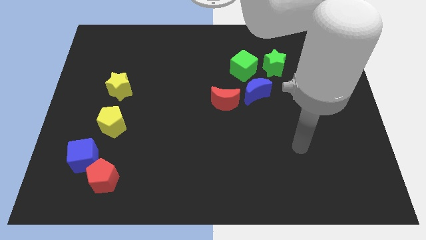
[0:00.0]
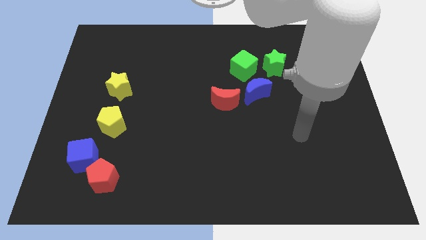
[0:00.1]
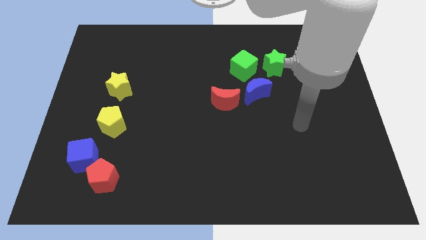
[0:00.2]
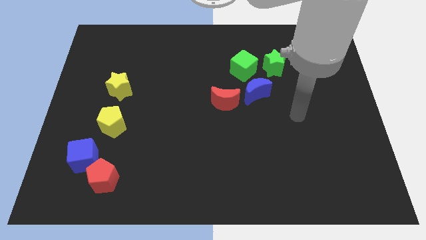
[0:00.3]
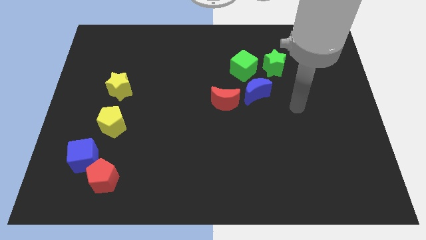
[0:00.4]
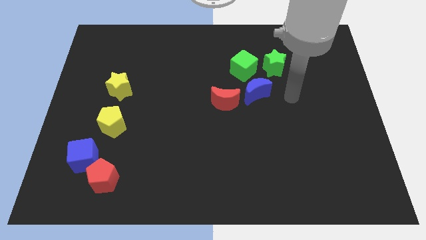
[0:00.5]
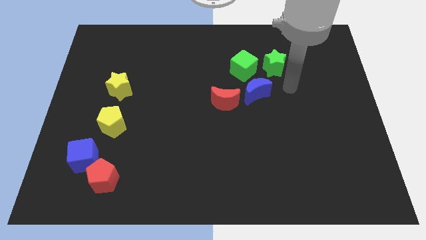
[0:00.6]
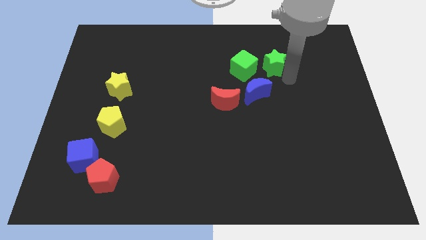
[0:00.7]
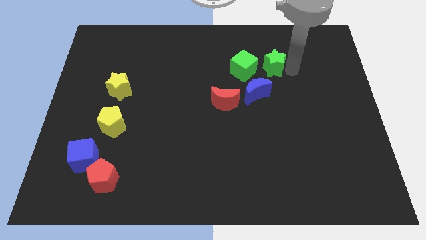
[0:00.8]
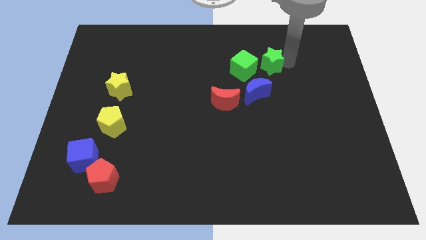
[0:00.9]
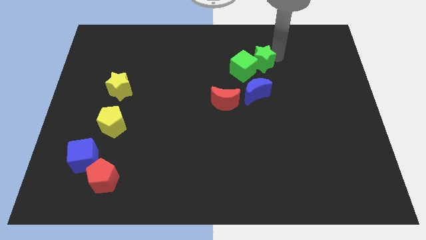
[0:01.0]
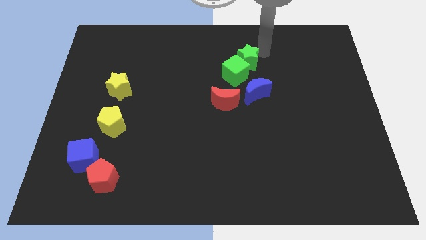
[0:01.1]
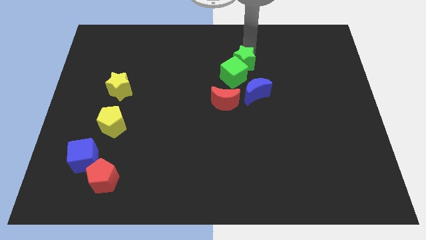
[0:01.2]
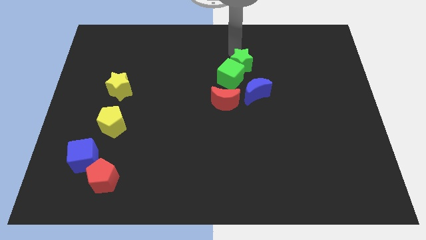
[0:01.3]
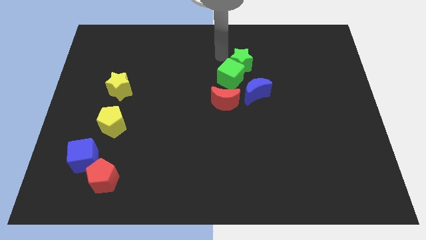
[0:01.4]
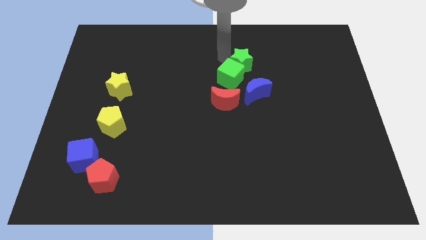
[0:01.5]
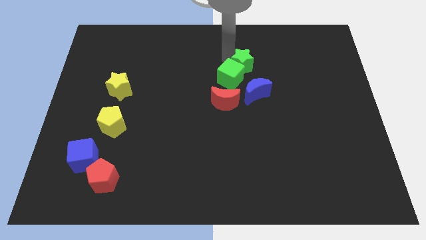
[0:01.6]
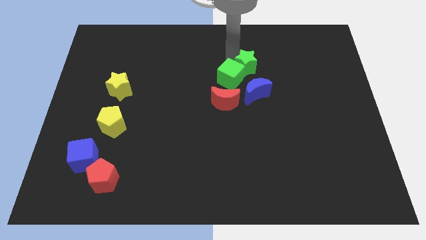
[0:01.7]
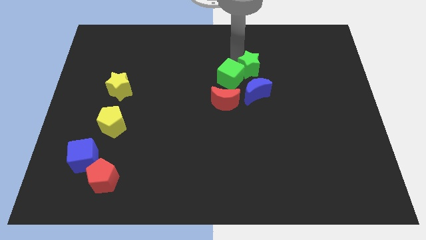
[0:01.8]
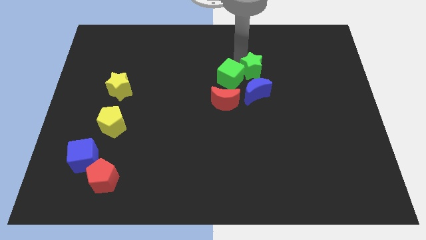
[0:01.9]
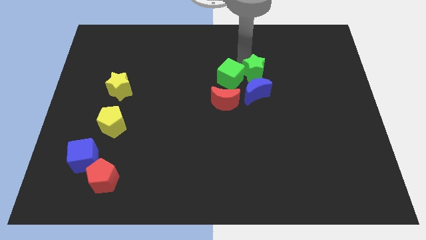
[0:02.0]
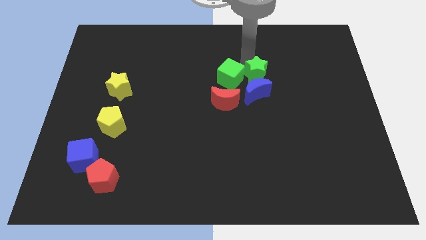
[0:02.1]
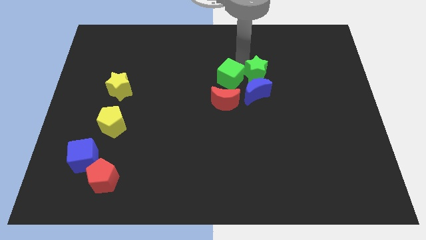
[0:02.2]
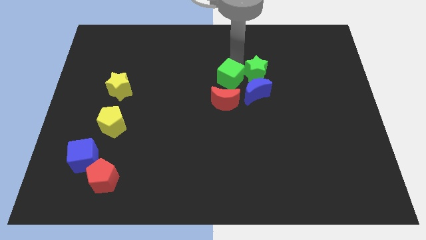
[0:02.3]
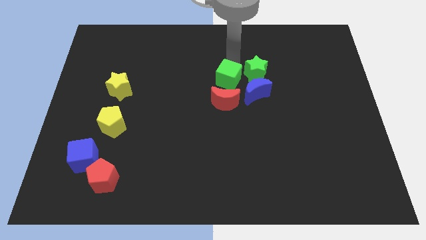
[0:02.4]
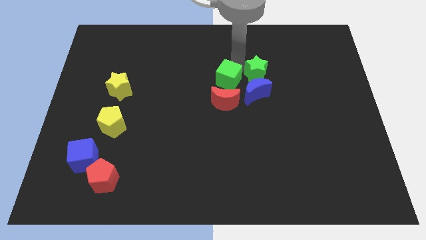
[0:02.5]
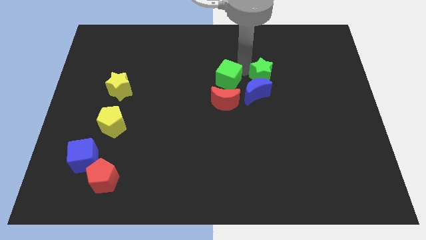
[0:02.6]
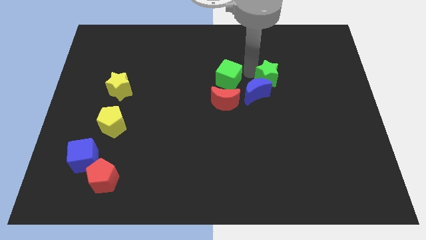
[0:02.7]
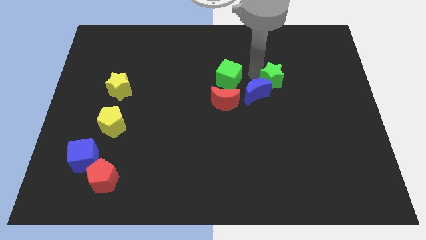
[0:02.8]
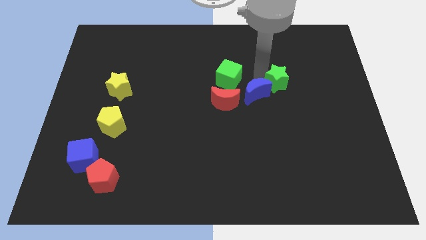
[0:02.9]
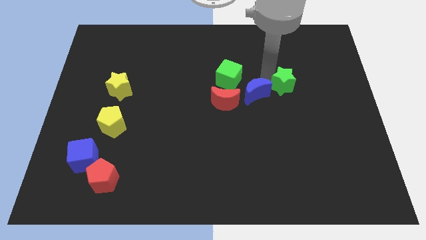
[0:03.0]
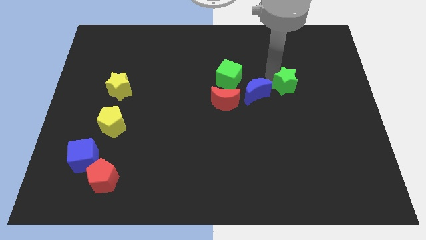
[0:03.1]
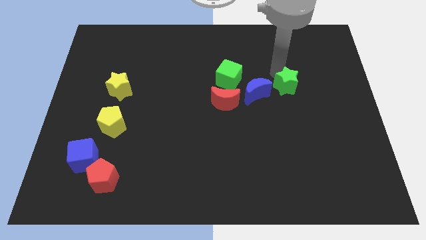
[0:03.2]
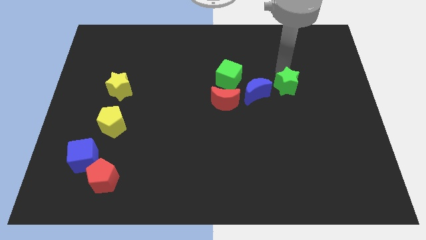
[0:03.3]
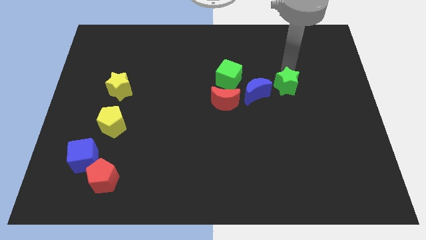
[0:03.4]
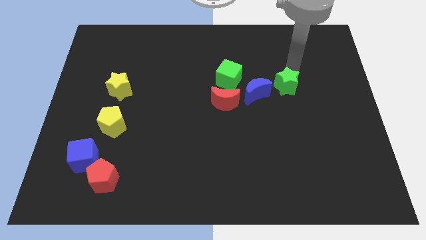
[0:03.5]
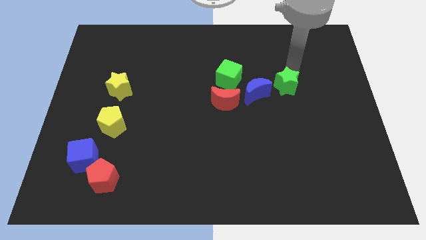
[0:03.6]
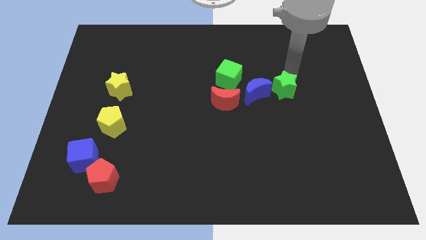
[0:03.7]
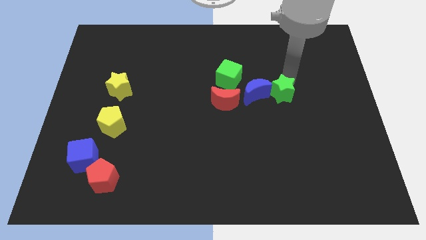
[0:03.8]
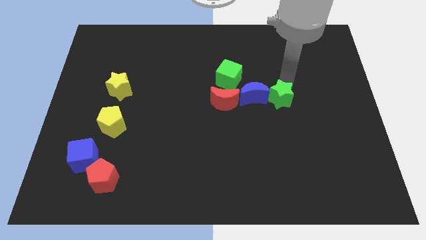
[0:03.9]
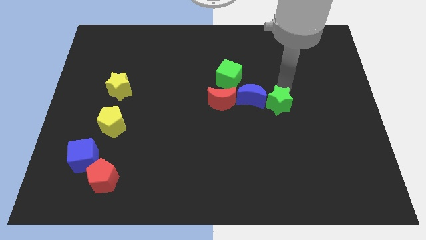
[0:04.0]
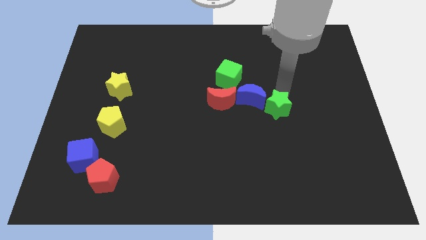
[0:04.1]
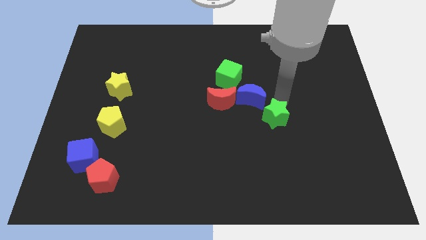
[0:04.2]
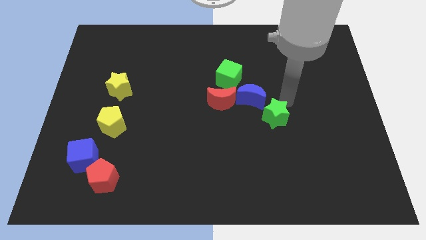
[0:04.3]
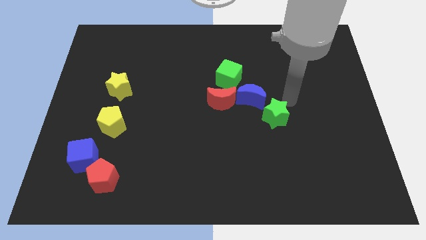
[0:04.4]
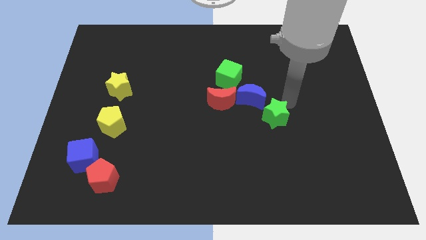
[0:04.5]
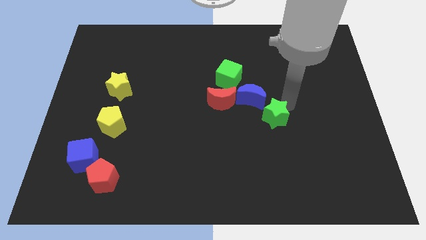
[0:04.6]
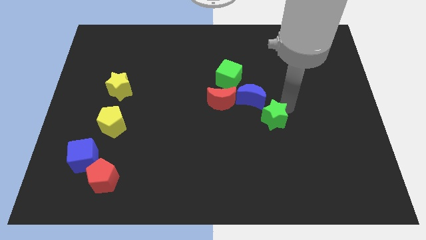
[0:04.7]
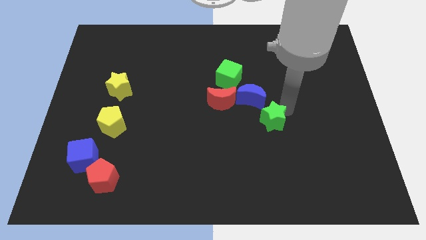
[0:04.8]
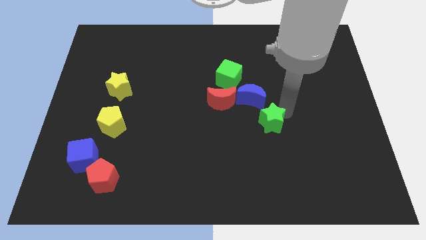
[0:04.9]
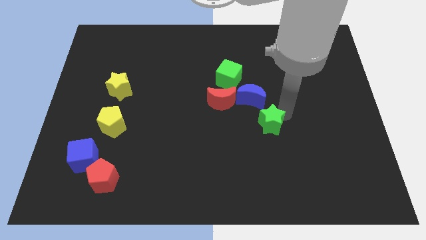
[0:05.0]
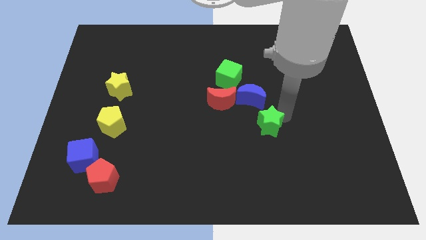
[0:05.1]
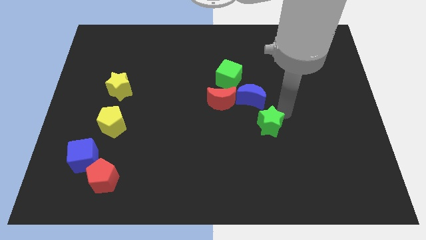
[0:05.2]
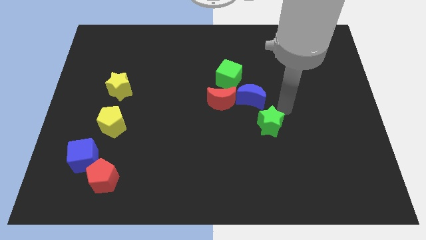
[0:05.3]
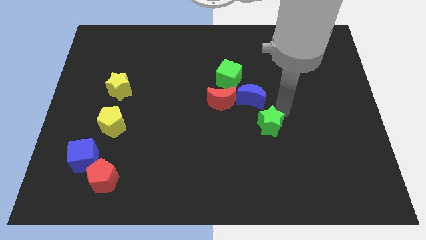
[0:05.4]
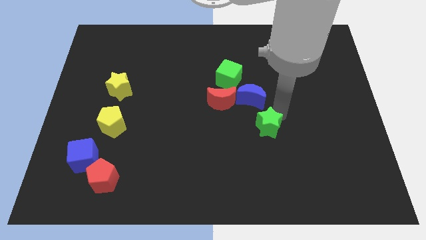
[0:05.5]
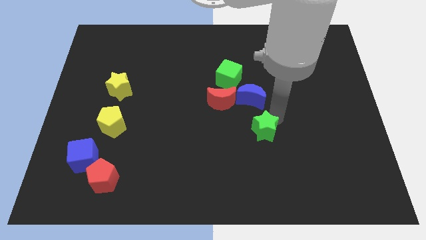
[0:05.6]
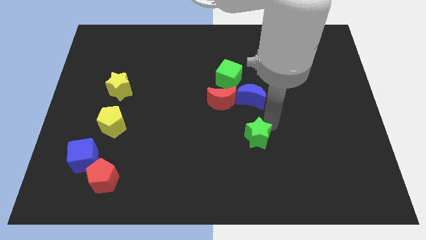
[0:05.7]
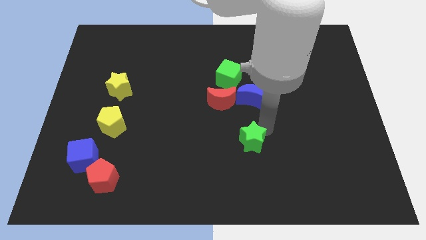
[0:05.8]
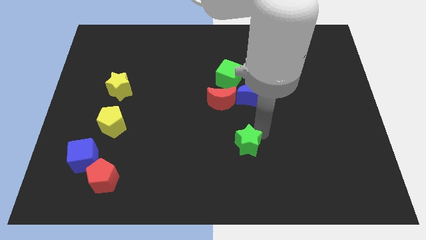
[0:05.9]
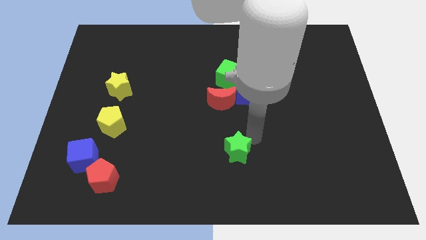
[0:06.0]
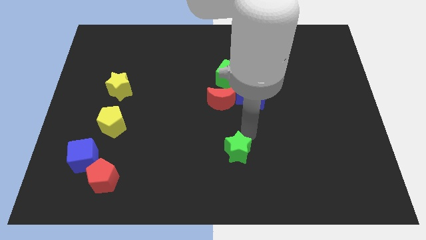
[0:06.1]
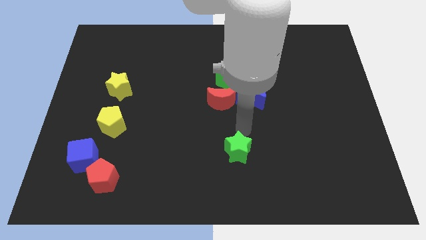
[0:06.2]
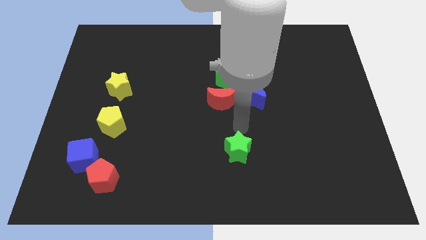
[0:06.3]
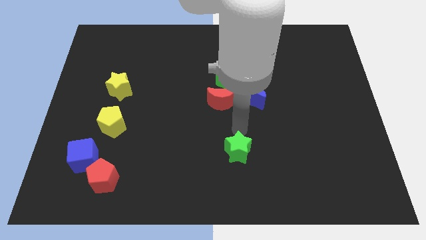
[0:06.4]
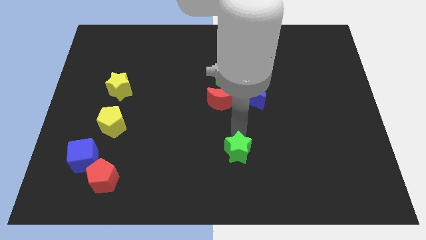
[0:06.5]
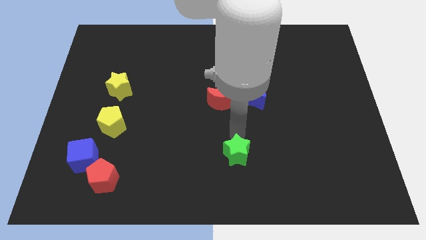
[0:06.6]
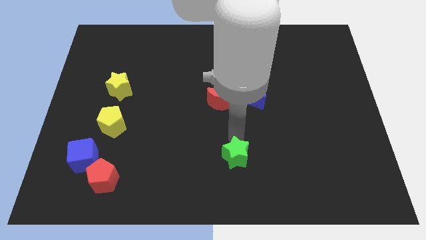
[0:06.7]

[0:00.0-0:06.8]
move the green star to the bottom side
